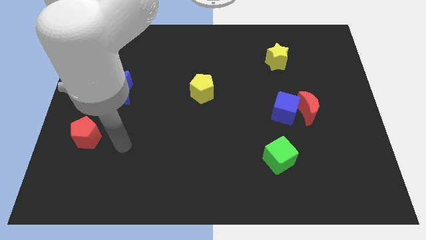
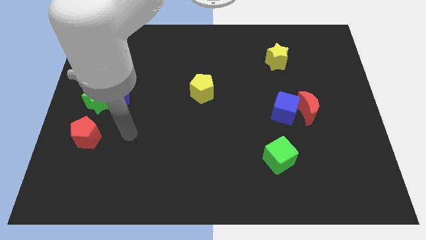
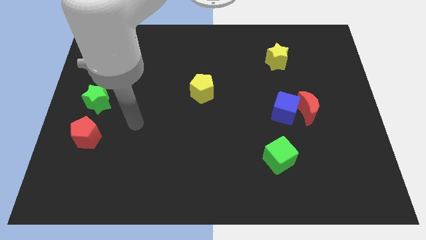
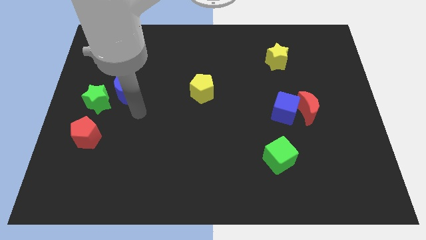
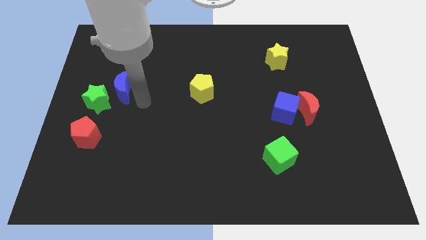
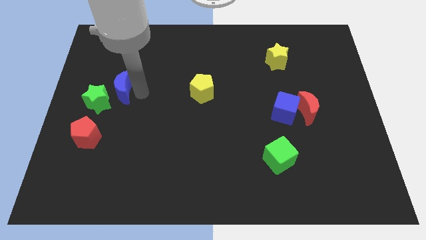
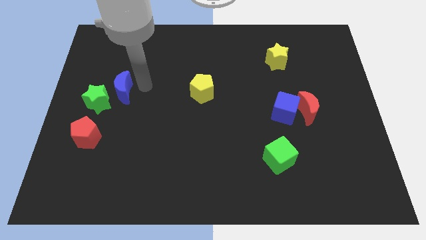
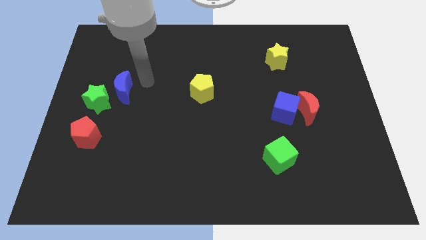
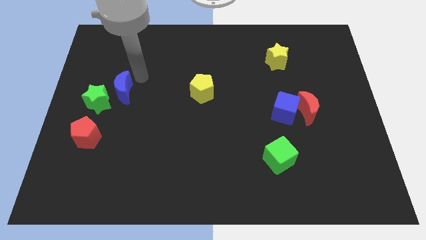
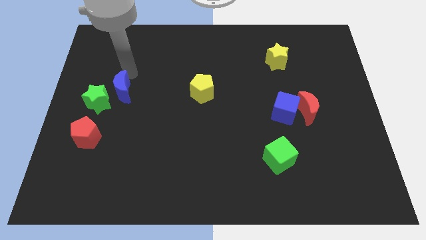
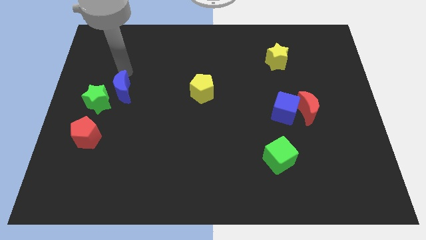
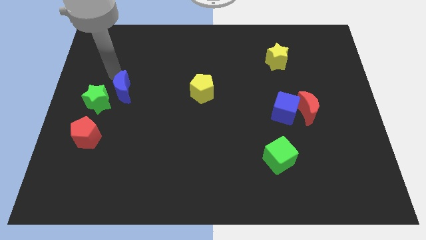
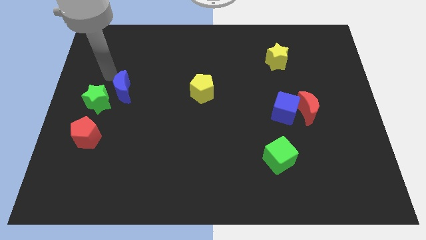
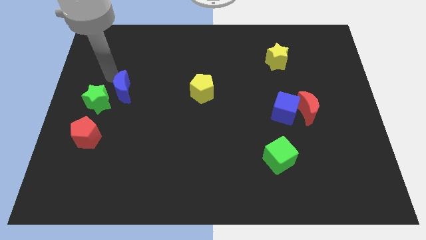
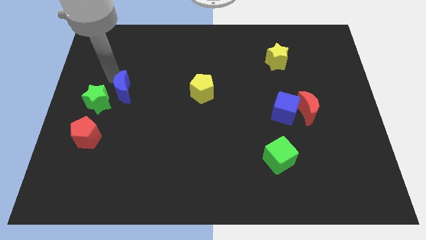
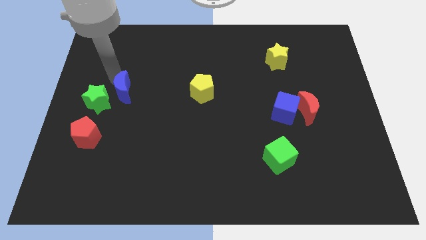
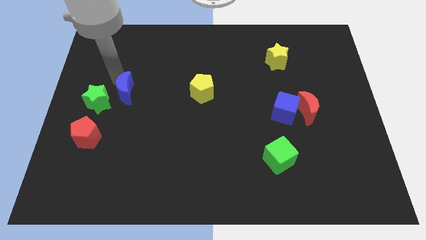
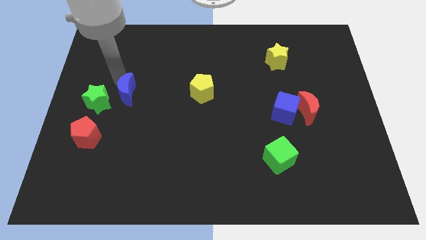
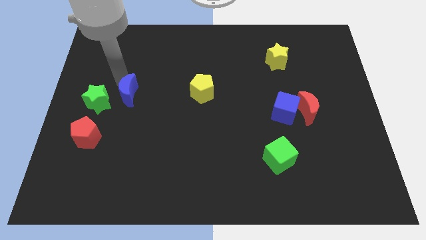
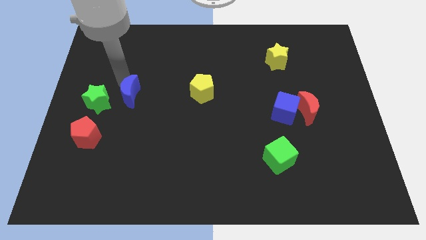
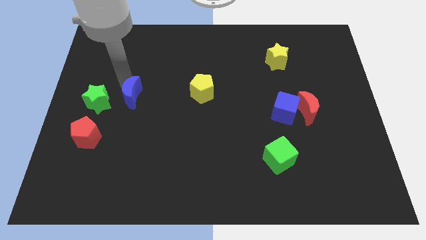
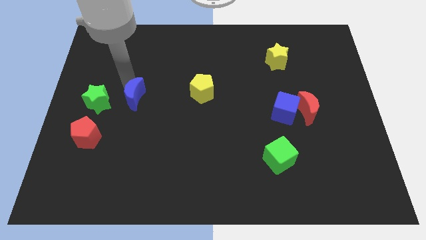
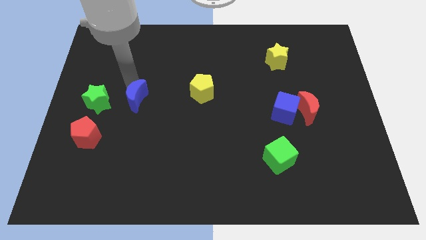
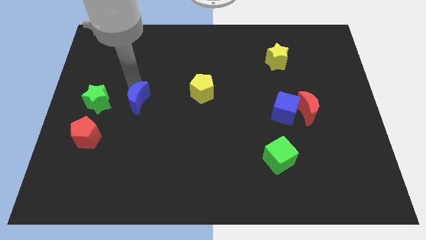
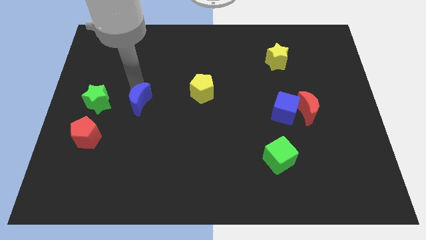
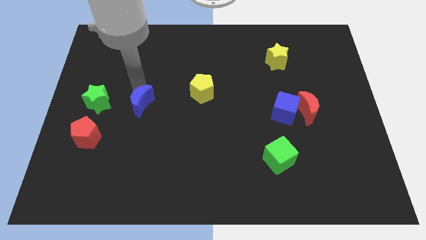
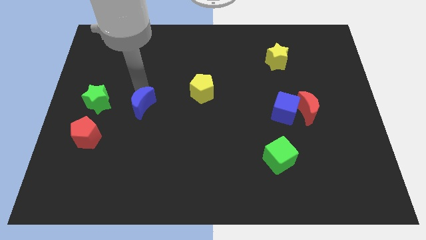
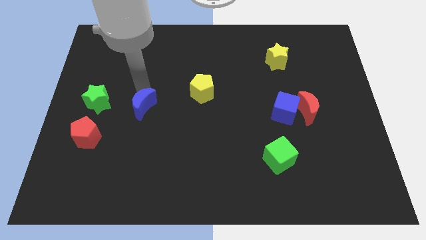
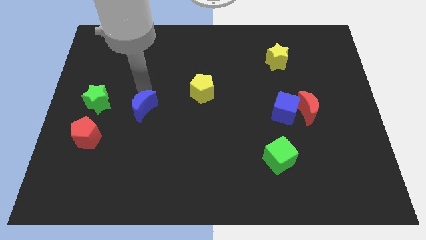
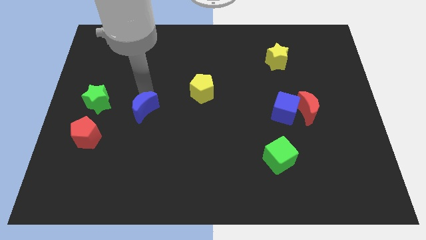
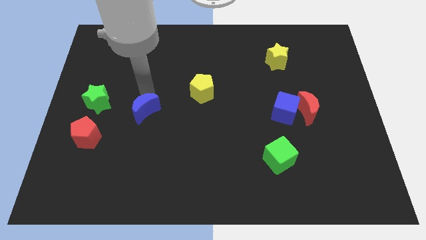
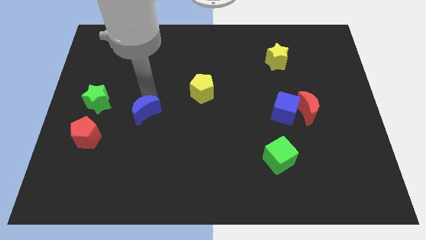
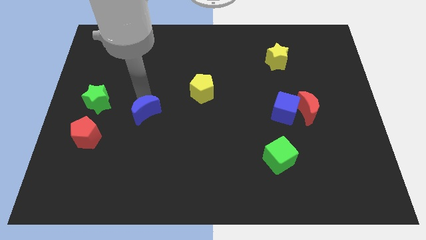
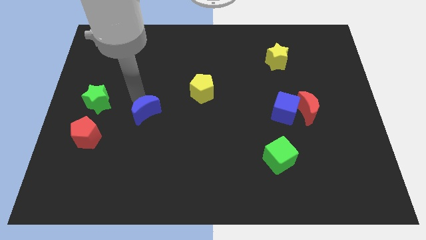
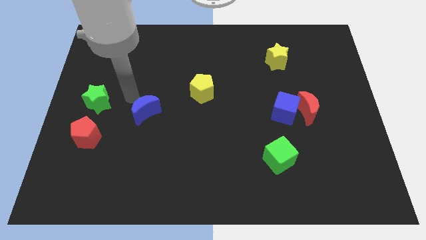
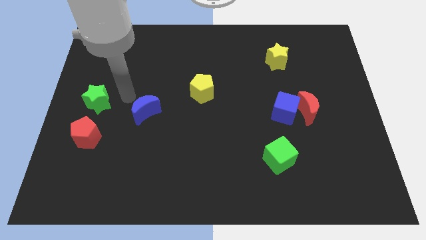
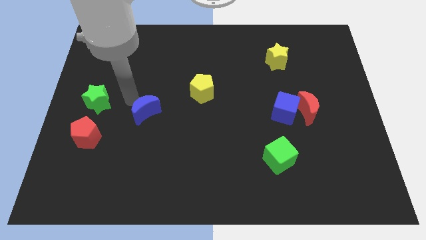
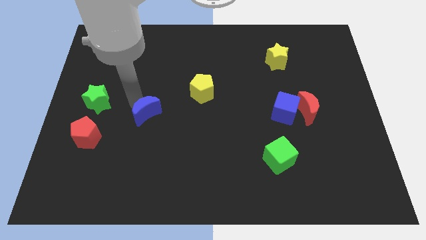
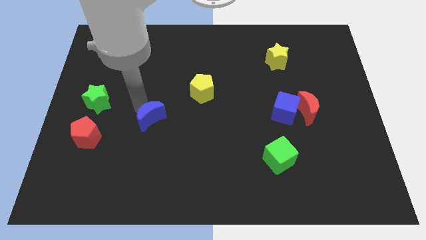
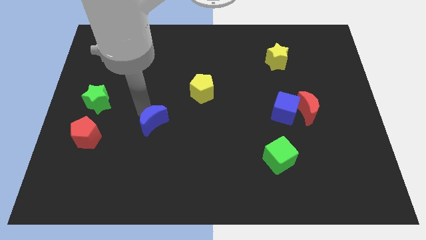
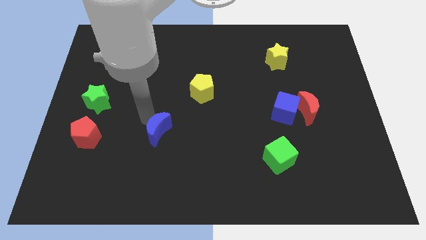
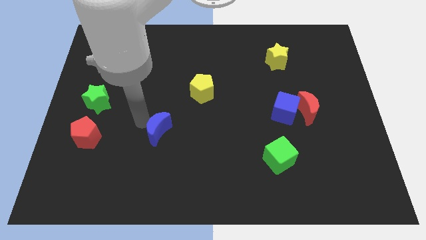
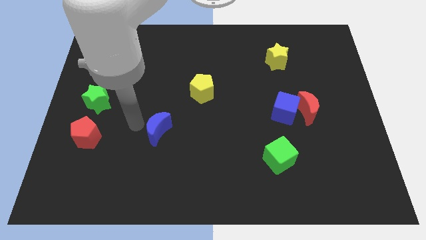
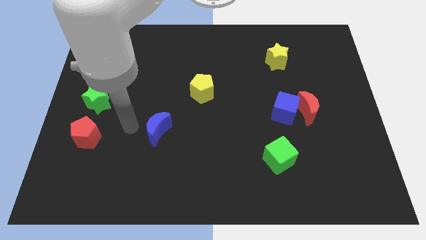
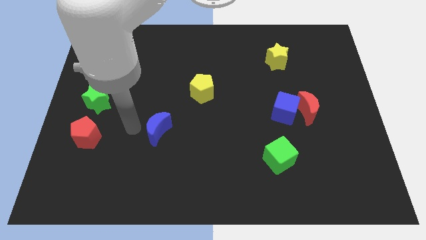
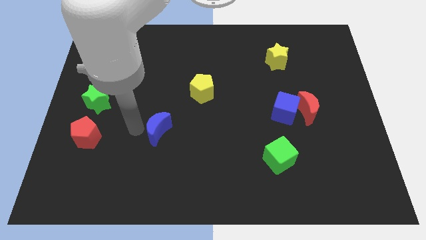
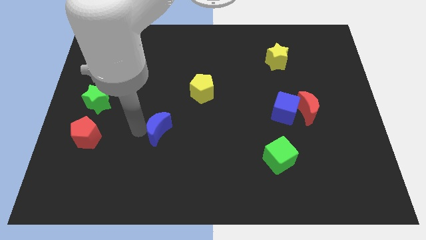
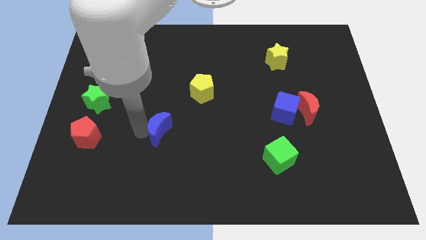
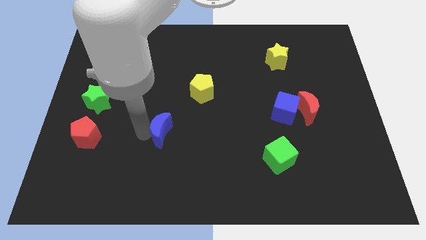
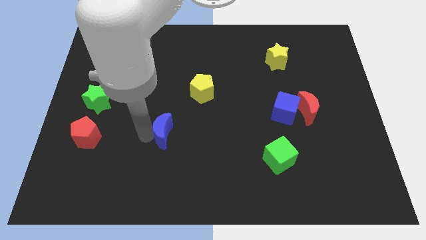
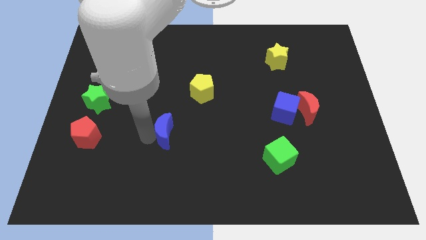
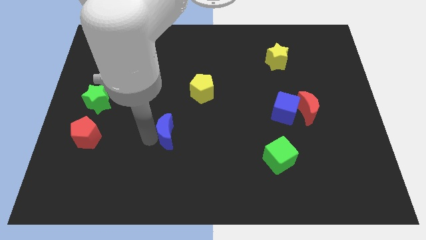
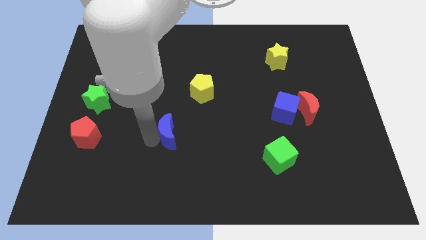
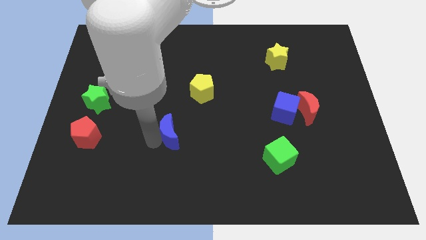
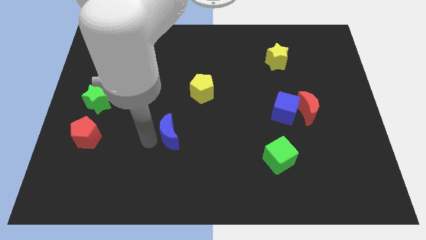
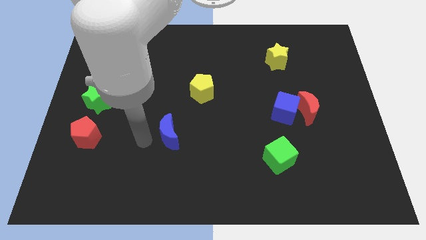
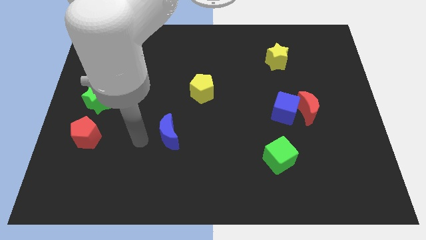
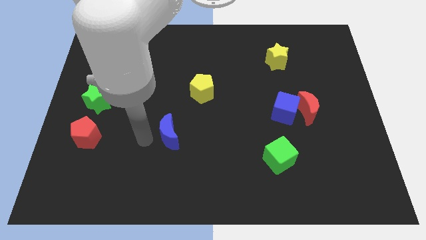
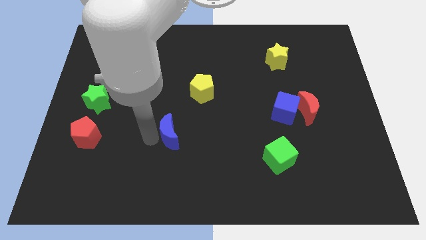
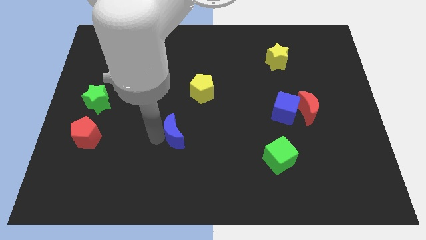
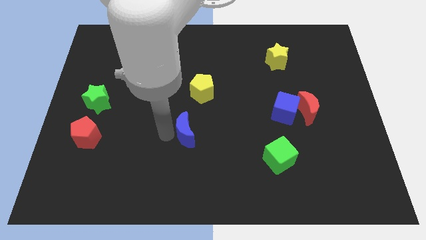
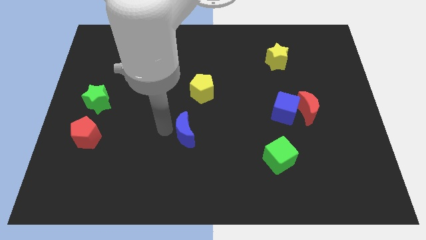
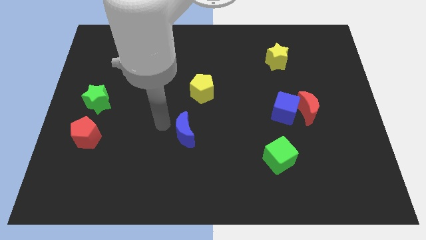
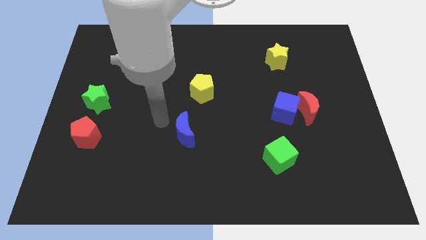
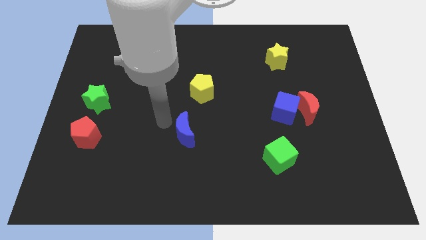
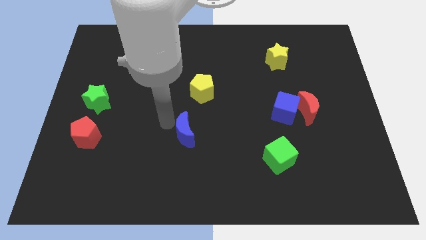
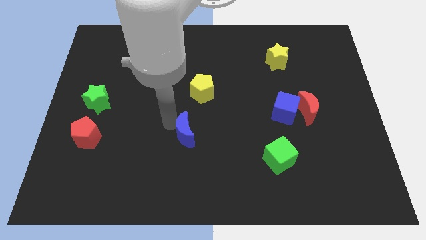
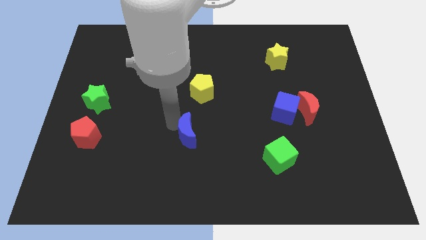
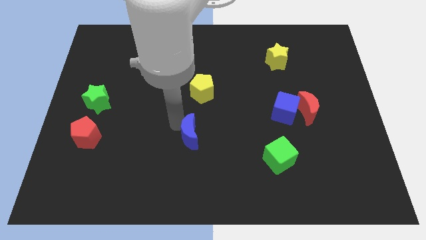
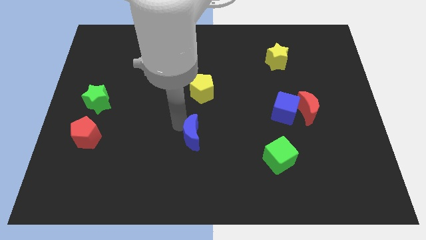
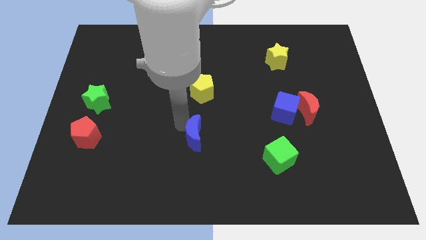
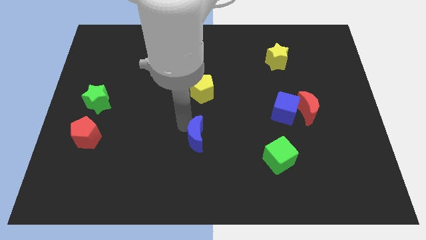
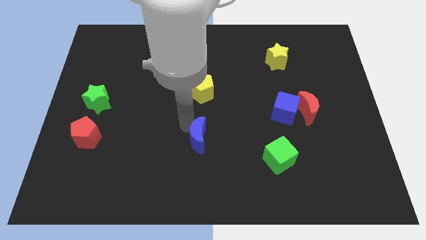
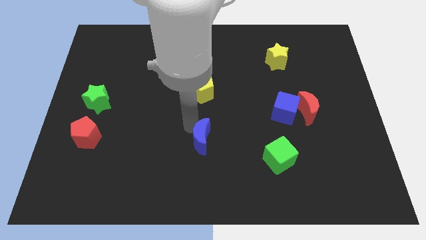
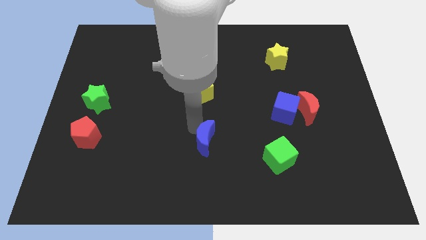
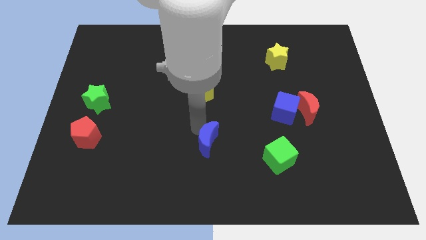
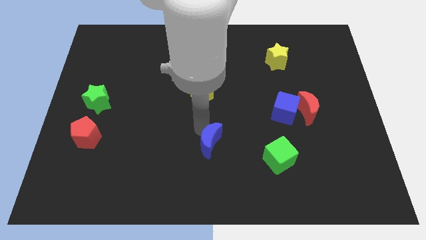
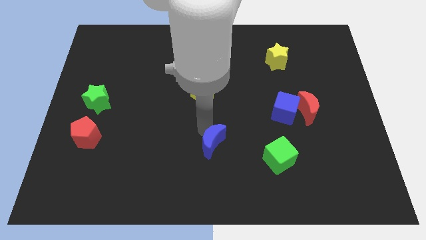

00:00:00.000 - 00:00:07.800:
put the blue moon to the left of the green cube
